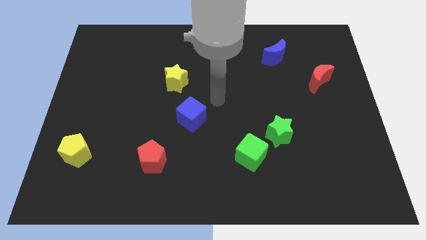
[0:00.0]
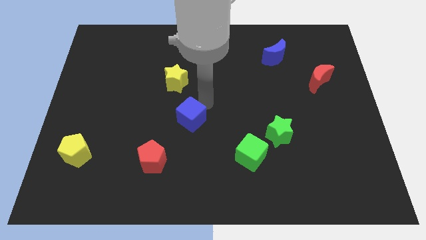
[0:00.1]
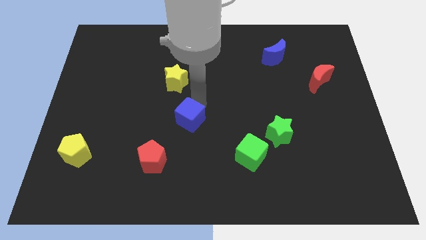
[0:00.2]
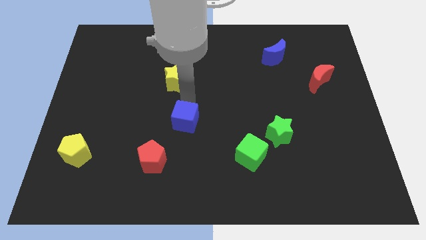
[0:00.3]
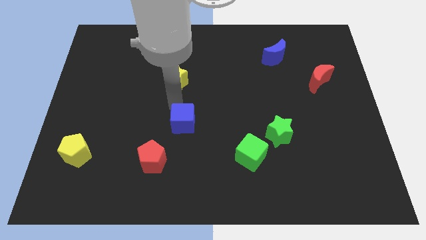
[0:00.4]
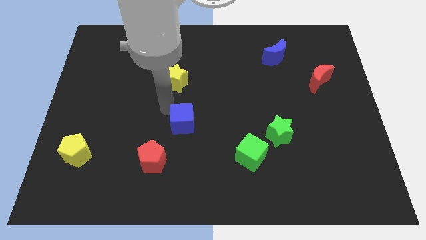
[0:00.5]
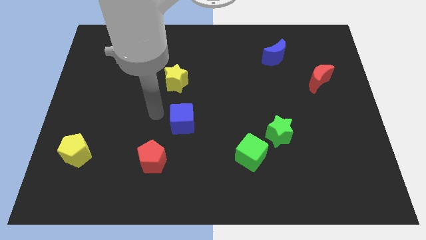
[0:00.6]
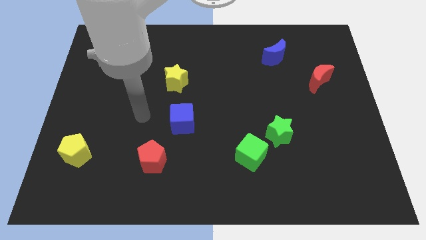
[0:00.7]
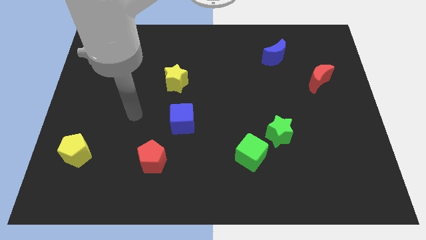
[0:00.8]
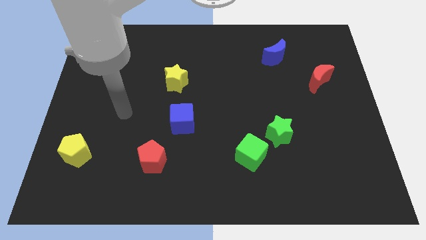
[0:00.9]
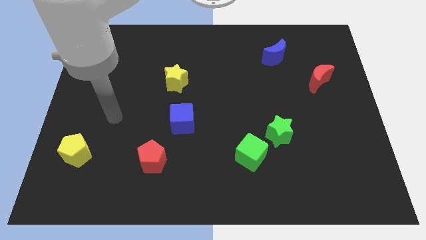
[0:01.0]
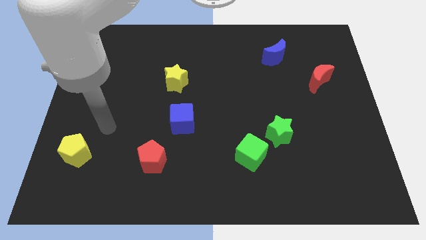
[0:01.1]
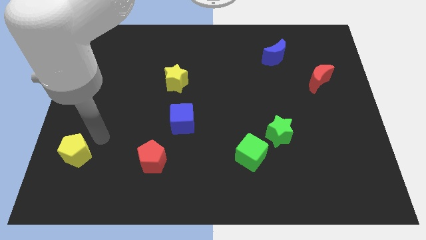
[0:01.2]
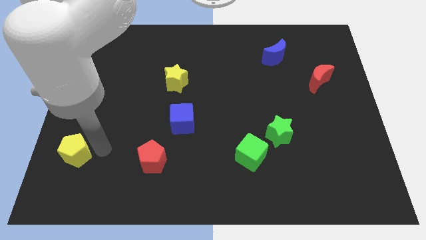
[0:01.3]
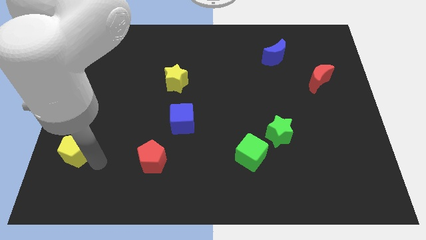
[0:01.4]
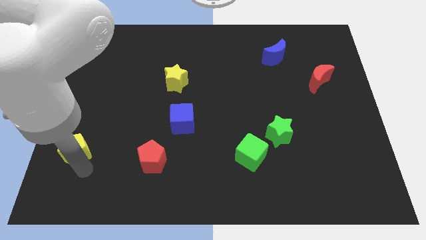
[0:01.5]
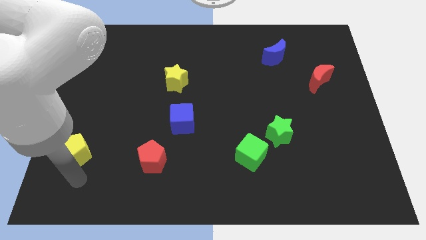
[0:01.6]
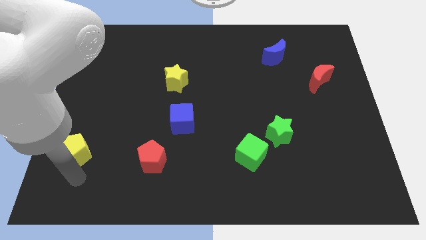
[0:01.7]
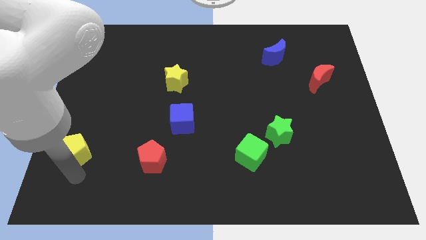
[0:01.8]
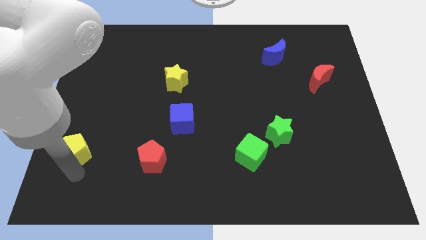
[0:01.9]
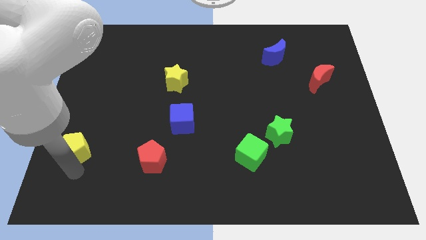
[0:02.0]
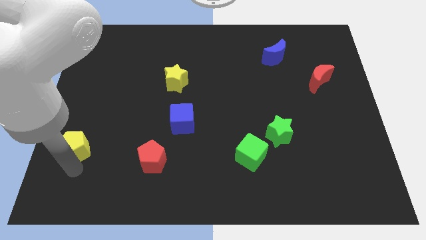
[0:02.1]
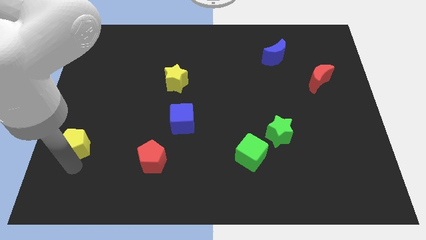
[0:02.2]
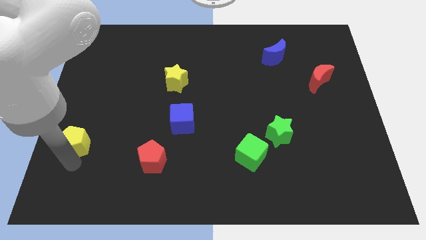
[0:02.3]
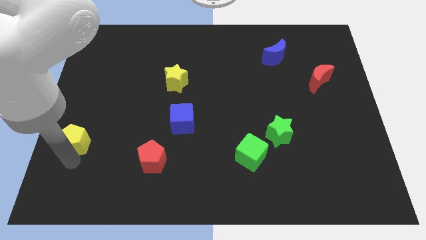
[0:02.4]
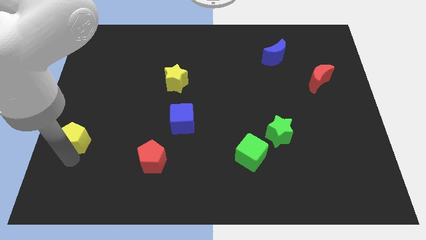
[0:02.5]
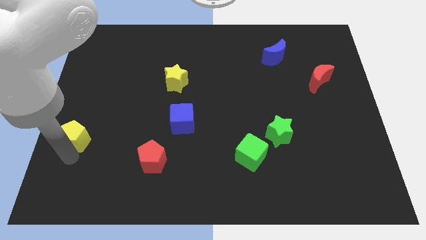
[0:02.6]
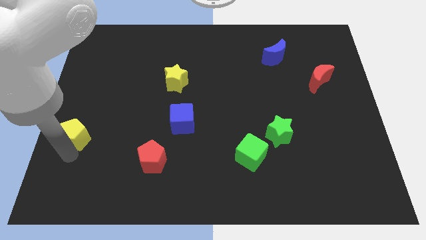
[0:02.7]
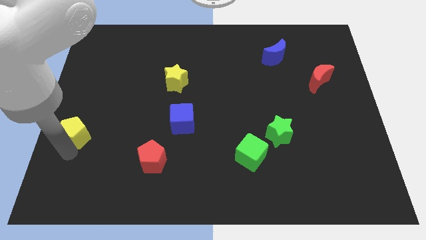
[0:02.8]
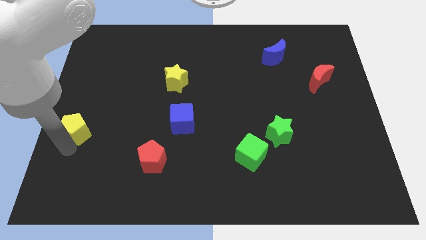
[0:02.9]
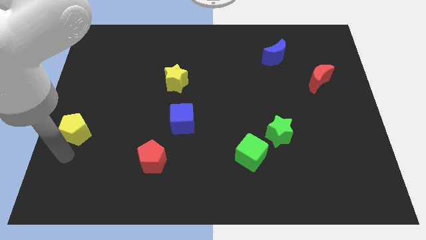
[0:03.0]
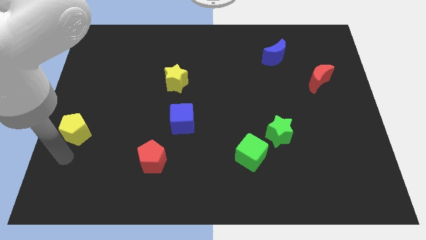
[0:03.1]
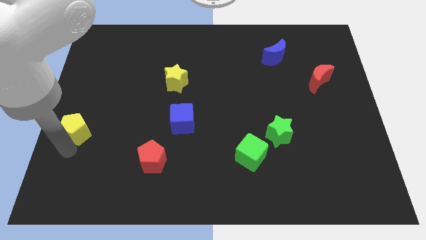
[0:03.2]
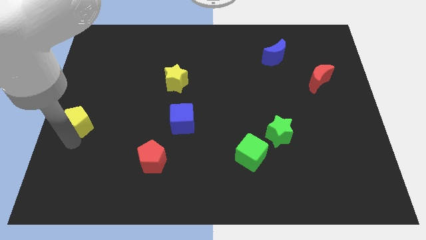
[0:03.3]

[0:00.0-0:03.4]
push the yellow pentagon up a little

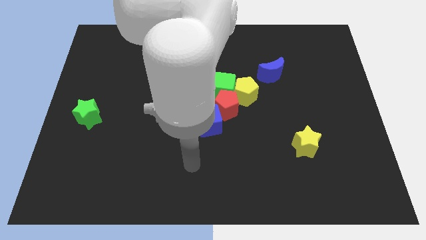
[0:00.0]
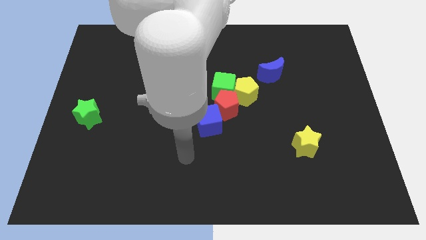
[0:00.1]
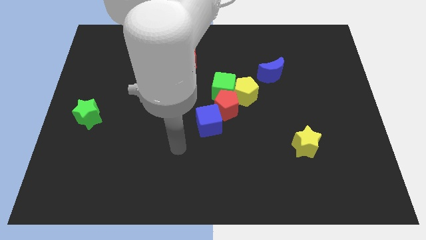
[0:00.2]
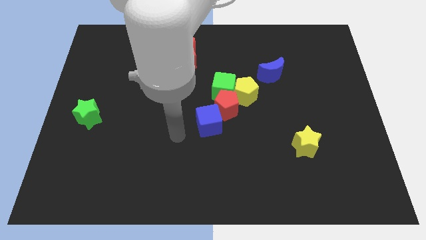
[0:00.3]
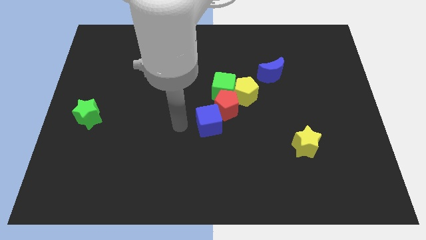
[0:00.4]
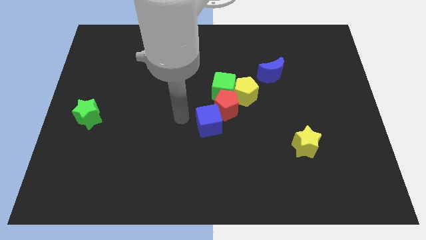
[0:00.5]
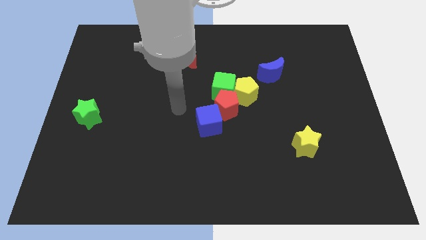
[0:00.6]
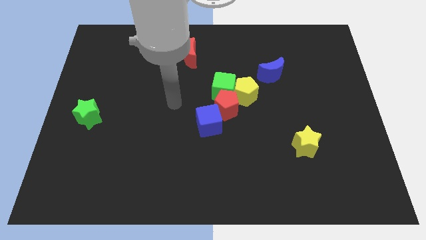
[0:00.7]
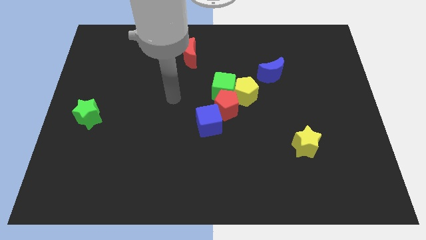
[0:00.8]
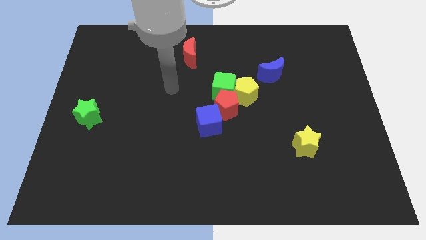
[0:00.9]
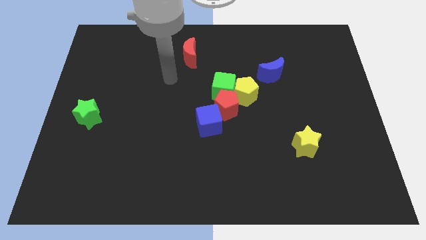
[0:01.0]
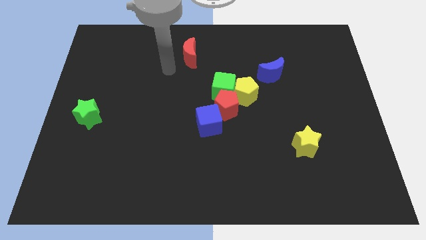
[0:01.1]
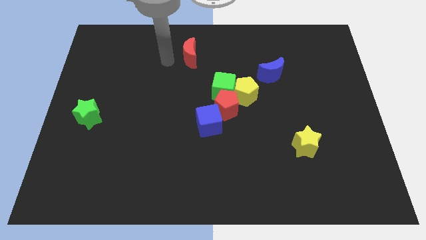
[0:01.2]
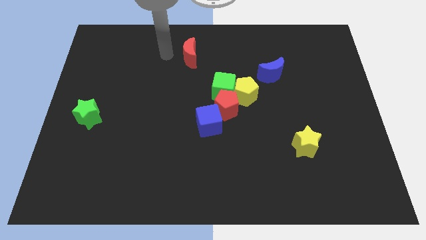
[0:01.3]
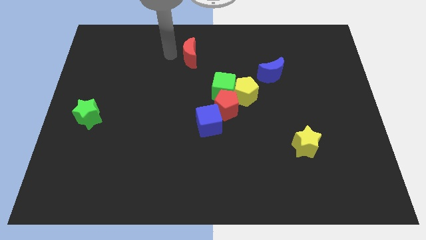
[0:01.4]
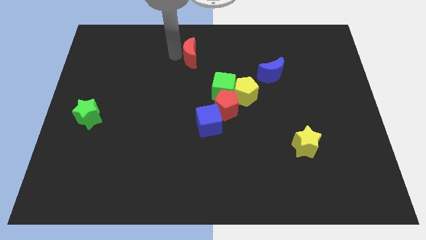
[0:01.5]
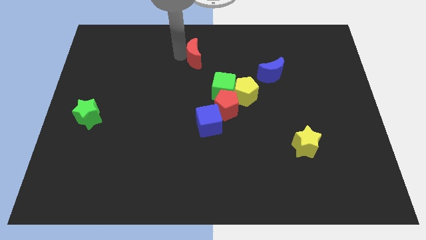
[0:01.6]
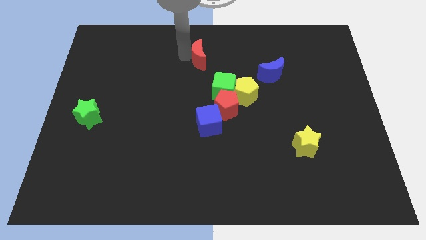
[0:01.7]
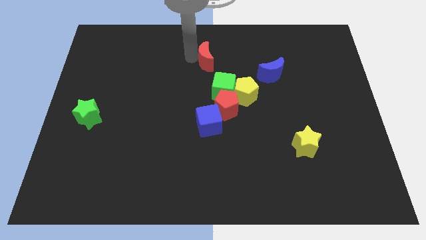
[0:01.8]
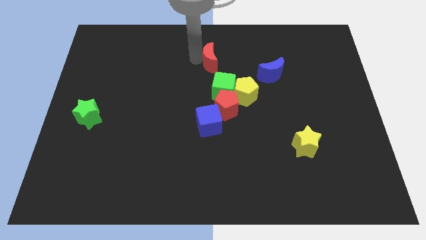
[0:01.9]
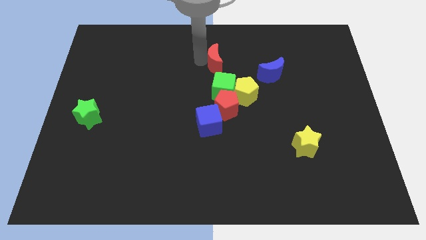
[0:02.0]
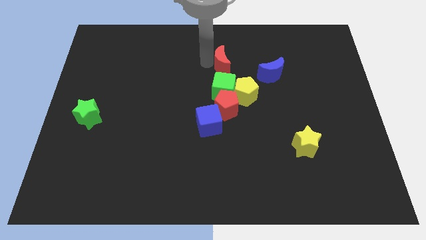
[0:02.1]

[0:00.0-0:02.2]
push the red moon a little bit to the right

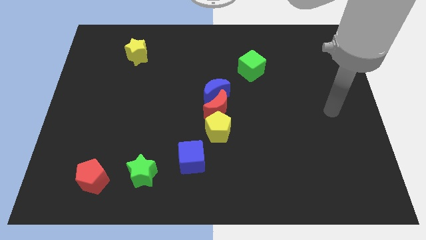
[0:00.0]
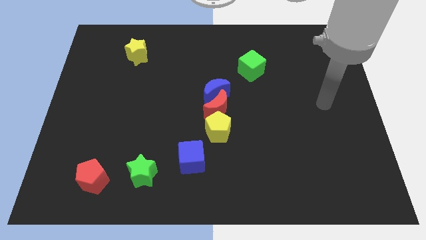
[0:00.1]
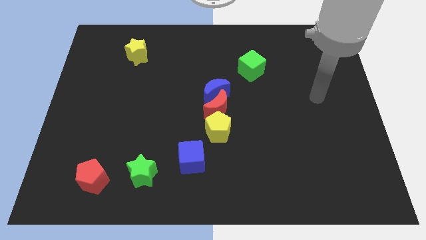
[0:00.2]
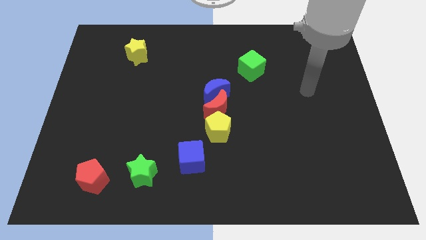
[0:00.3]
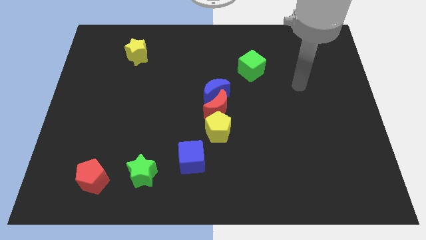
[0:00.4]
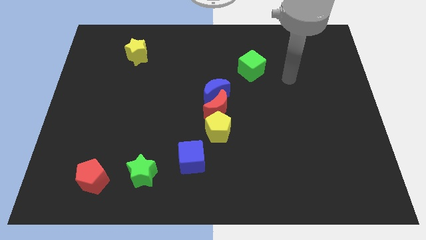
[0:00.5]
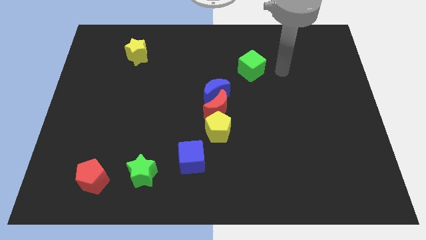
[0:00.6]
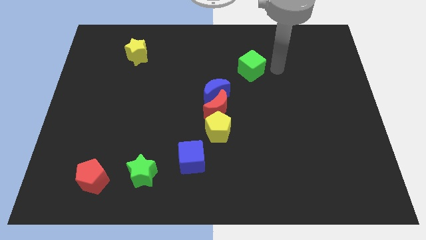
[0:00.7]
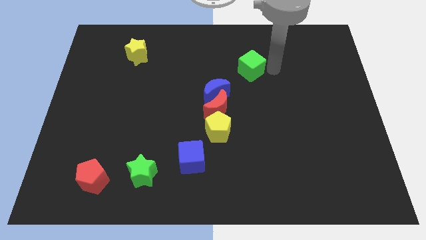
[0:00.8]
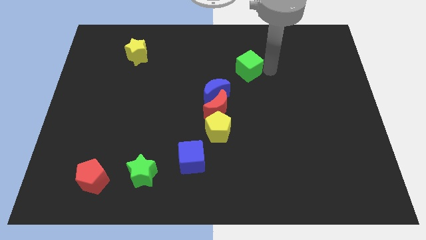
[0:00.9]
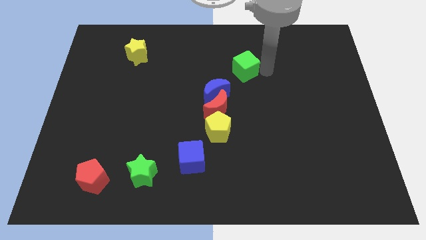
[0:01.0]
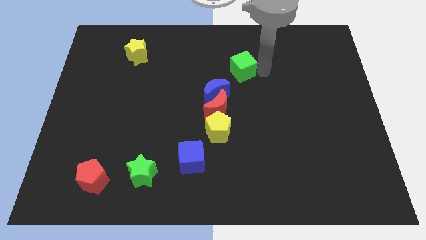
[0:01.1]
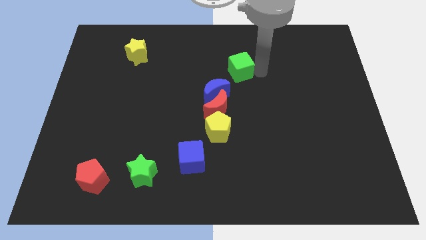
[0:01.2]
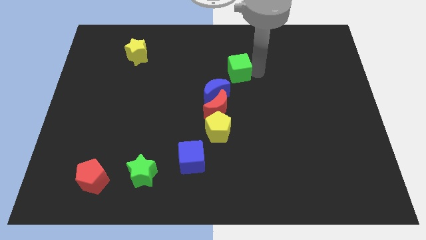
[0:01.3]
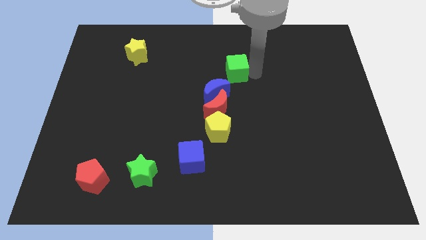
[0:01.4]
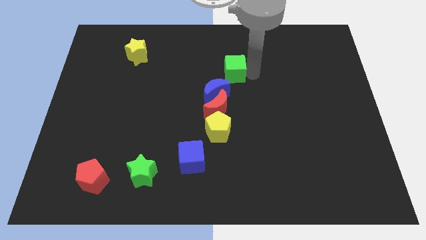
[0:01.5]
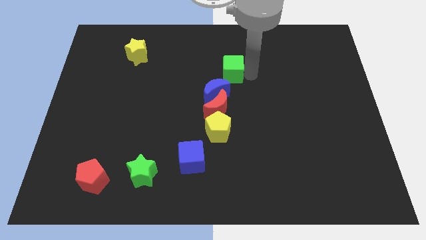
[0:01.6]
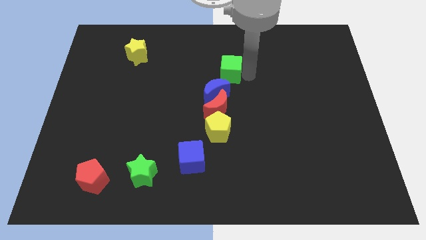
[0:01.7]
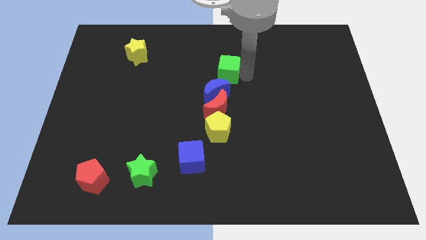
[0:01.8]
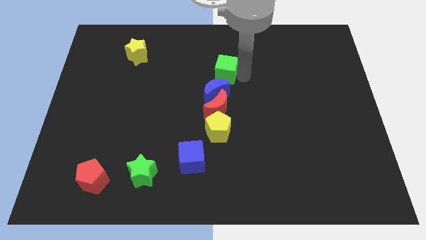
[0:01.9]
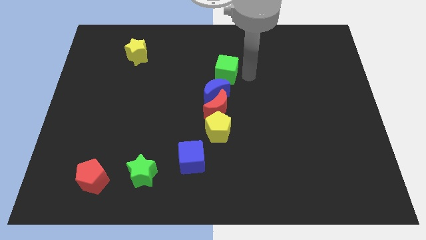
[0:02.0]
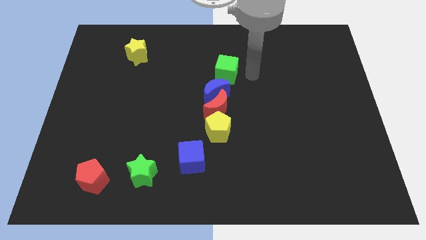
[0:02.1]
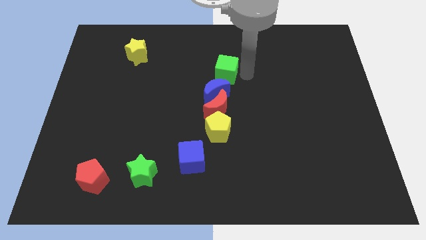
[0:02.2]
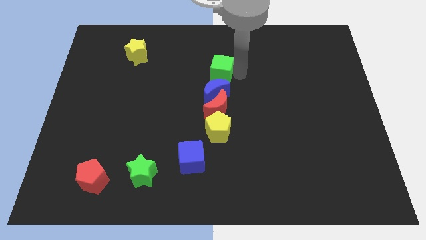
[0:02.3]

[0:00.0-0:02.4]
slide the green cube a little to the left

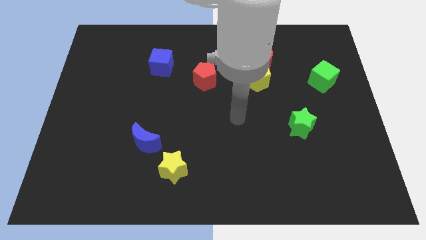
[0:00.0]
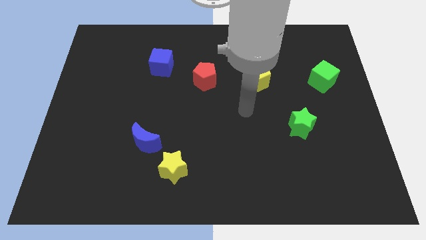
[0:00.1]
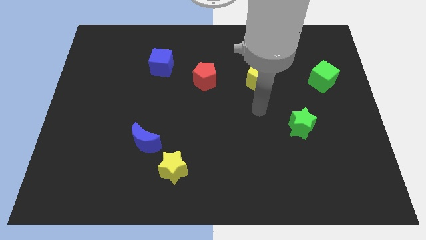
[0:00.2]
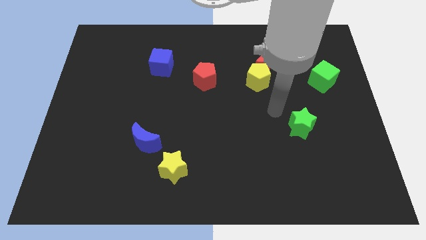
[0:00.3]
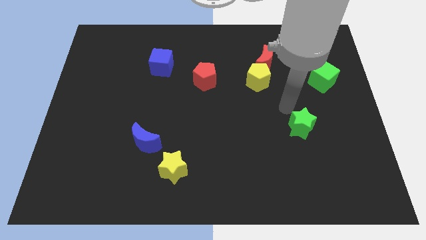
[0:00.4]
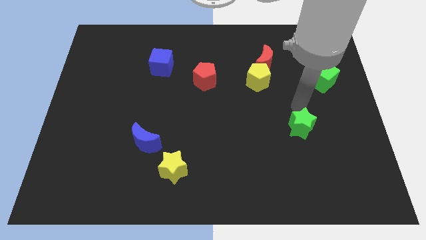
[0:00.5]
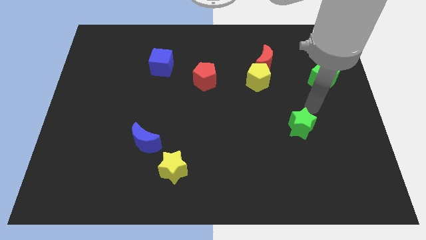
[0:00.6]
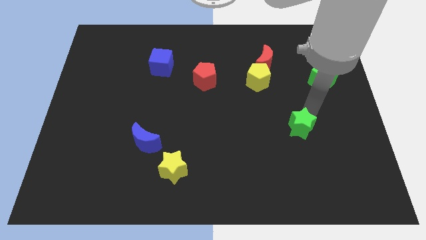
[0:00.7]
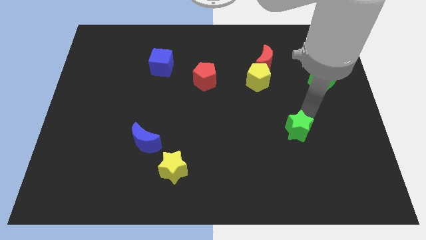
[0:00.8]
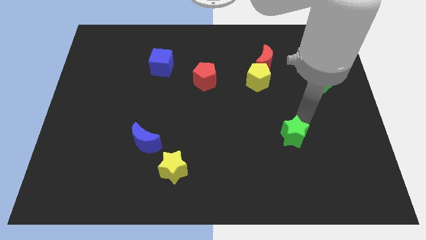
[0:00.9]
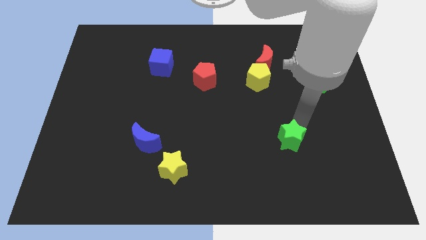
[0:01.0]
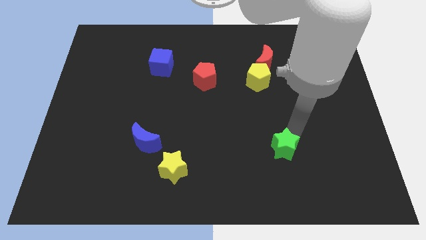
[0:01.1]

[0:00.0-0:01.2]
slightly move the green star diagonally downwards and to the left
